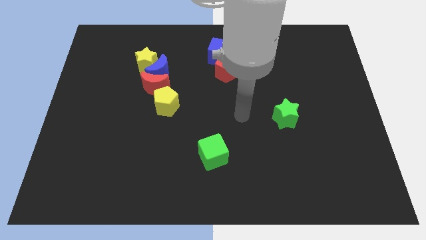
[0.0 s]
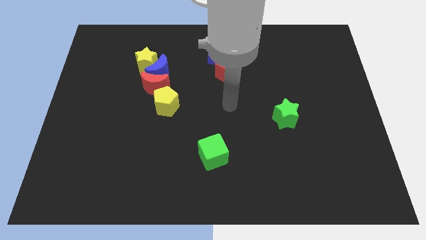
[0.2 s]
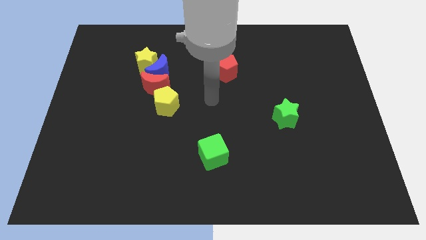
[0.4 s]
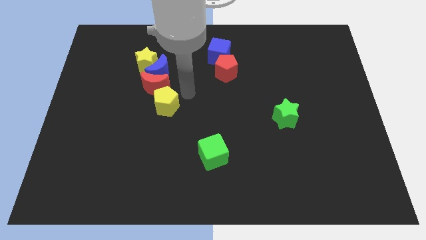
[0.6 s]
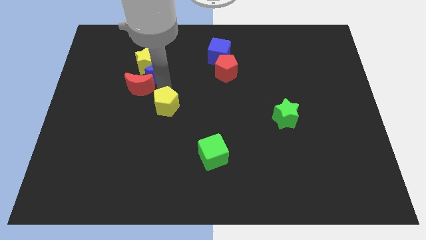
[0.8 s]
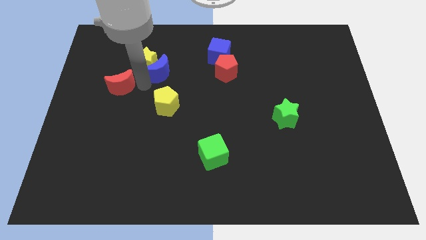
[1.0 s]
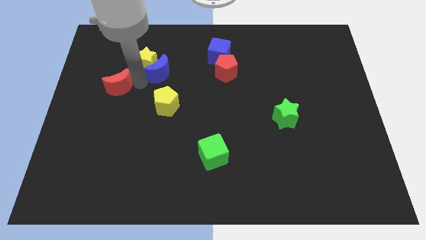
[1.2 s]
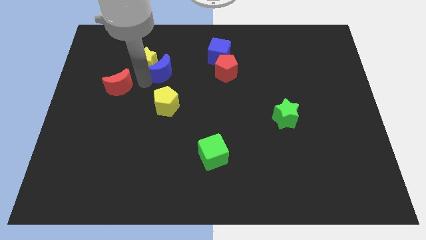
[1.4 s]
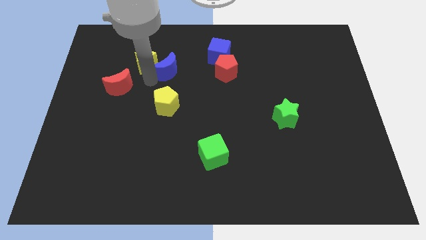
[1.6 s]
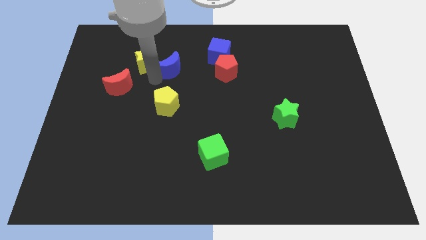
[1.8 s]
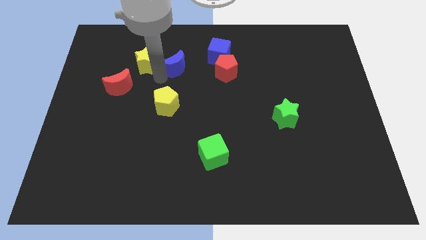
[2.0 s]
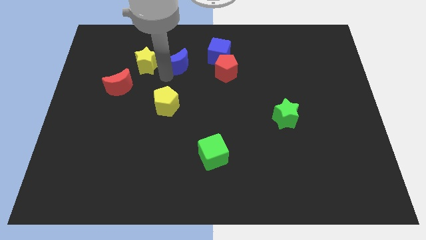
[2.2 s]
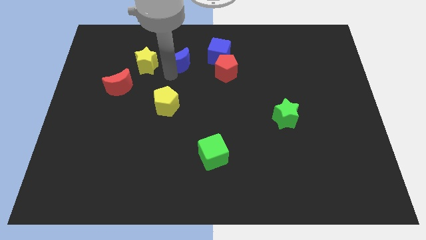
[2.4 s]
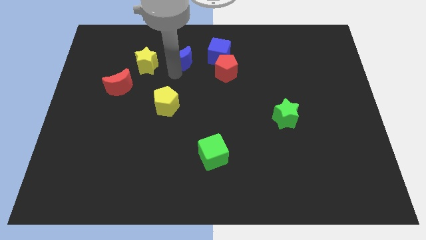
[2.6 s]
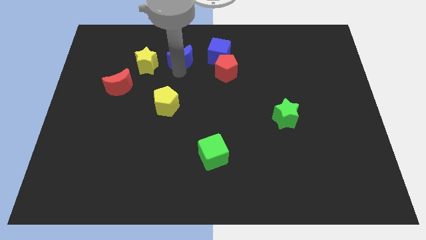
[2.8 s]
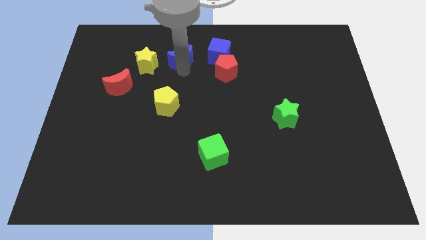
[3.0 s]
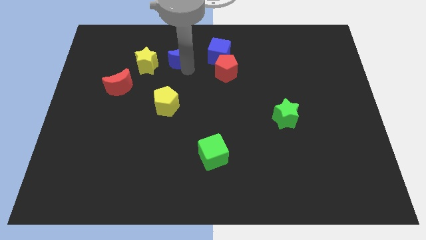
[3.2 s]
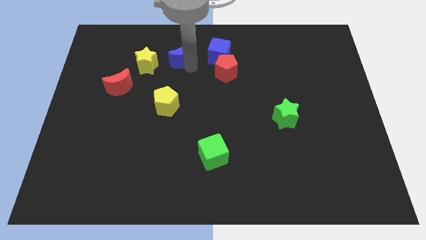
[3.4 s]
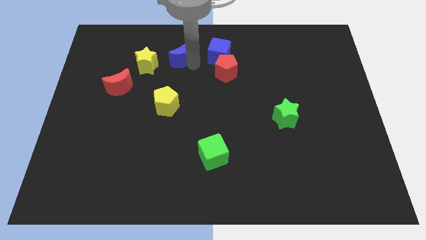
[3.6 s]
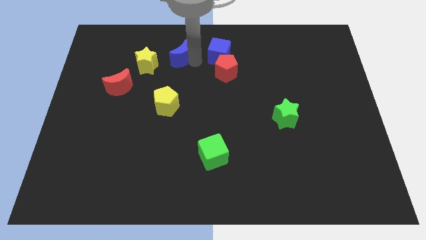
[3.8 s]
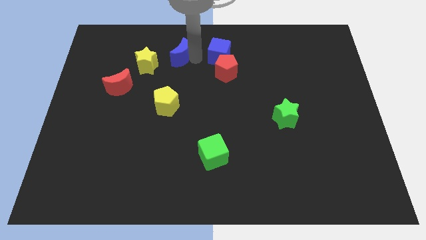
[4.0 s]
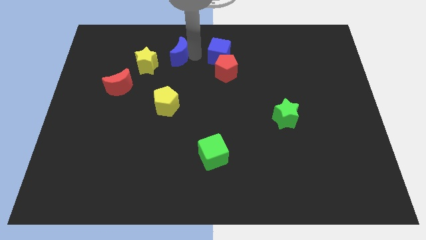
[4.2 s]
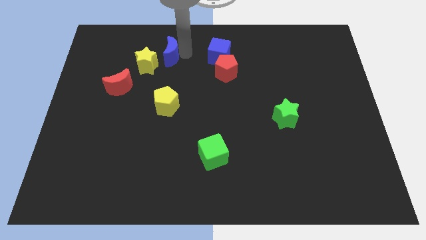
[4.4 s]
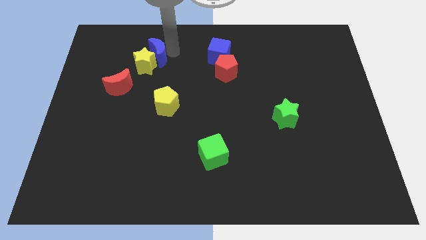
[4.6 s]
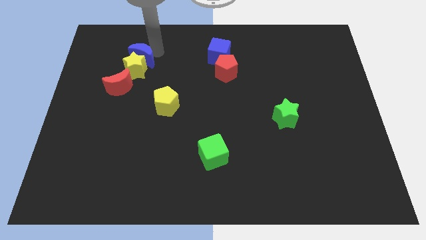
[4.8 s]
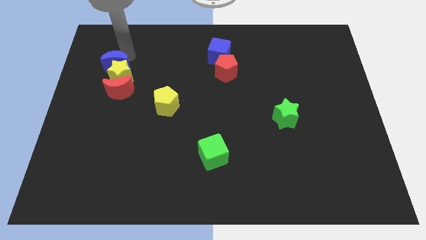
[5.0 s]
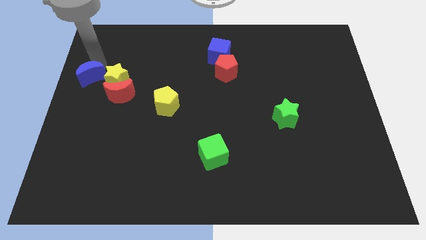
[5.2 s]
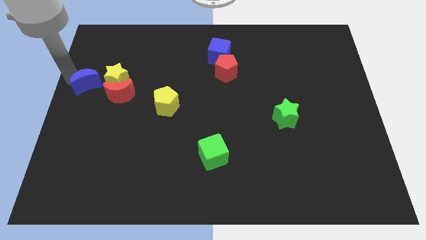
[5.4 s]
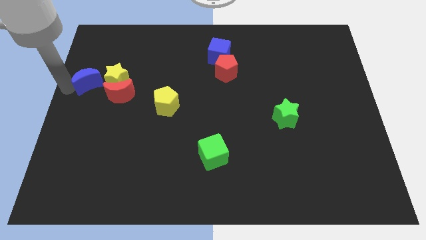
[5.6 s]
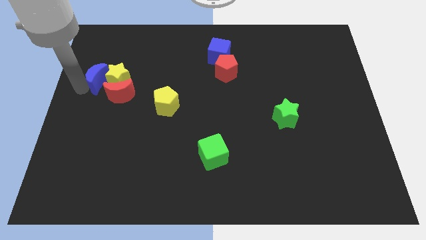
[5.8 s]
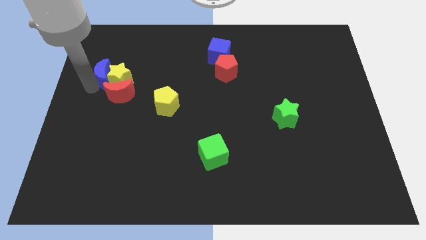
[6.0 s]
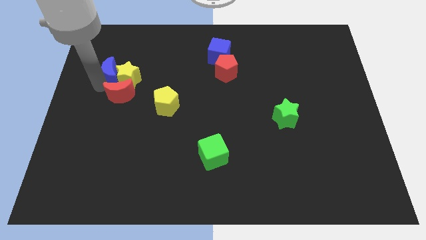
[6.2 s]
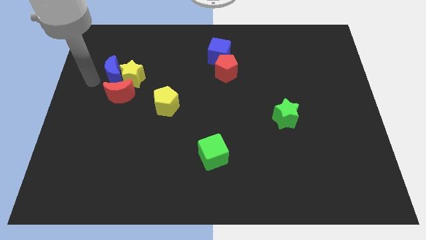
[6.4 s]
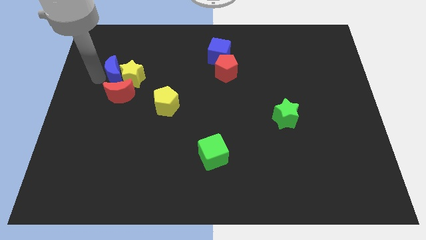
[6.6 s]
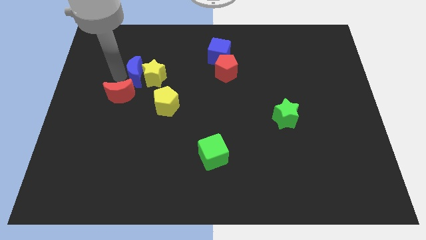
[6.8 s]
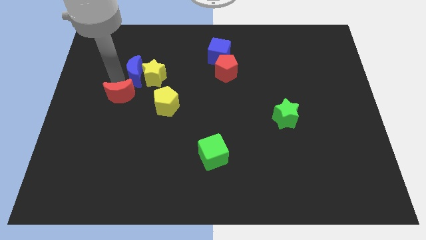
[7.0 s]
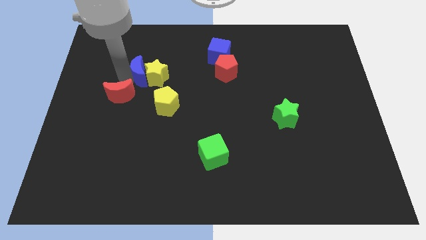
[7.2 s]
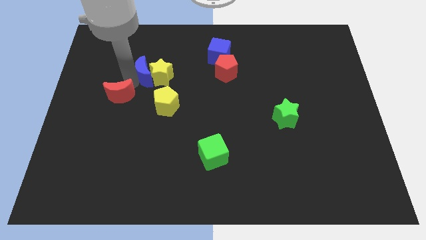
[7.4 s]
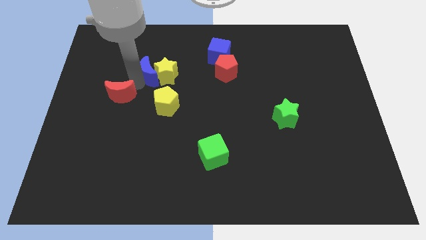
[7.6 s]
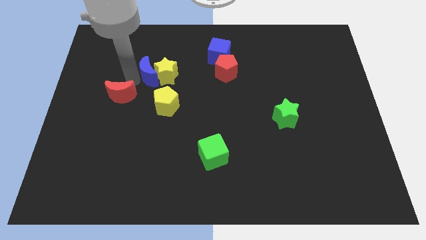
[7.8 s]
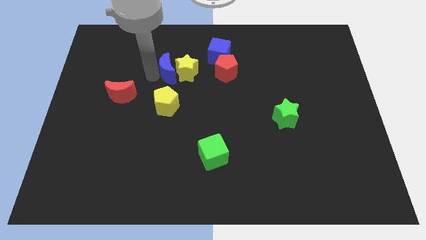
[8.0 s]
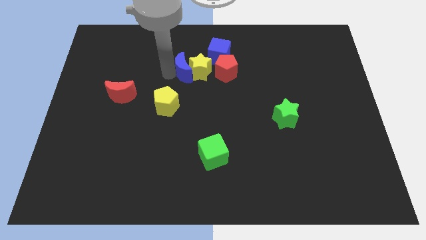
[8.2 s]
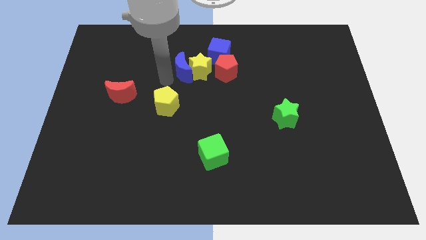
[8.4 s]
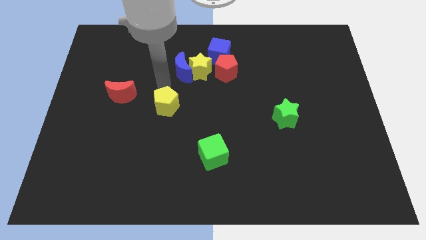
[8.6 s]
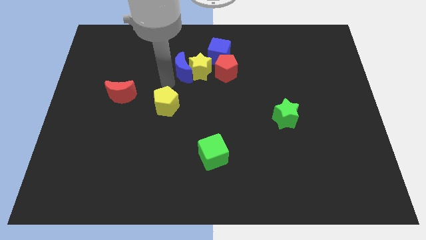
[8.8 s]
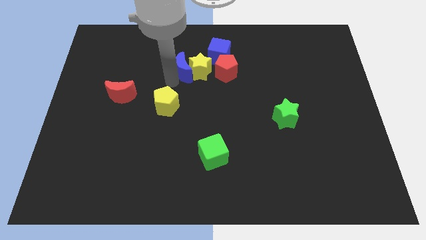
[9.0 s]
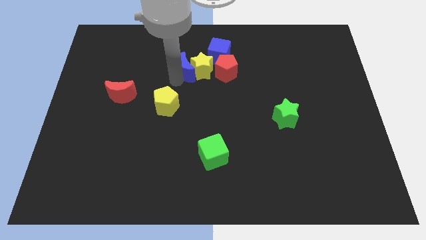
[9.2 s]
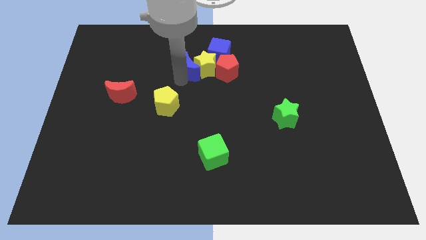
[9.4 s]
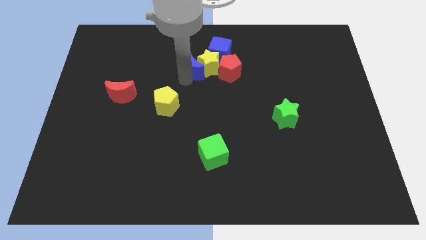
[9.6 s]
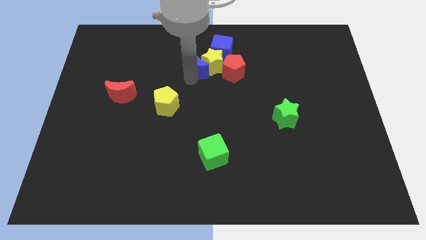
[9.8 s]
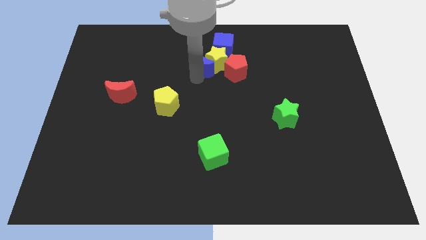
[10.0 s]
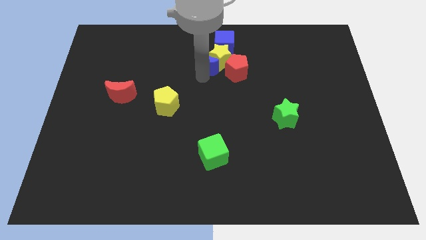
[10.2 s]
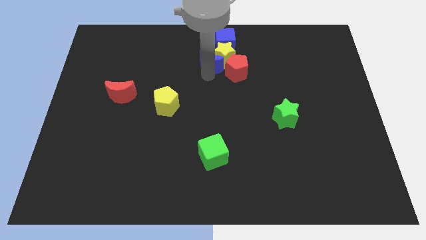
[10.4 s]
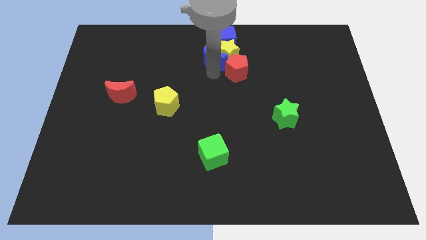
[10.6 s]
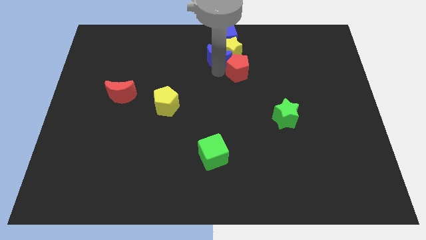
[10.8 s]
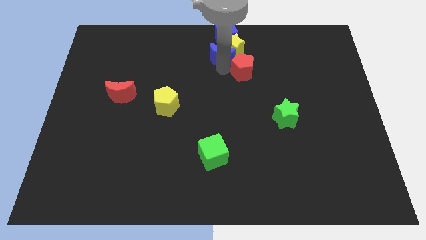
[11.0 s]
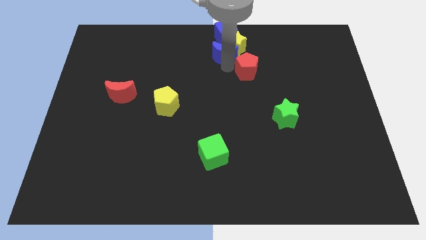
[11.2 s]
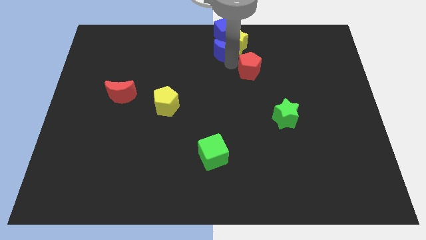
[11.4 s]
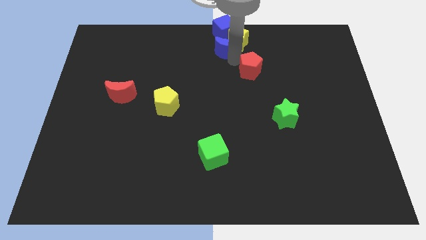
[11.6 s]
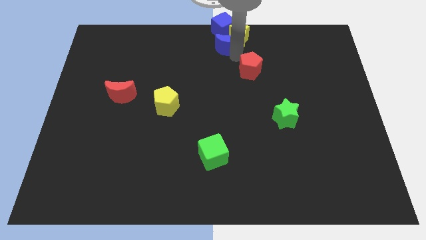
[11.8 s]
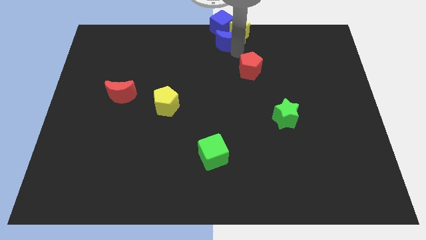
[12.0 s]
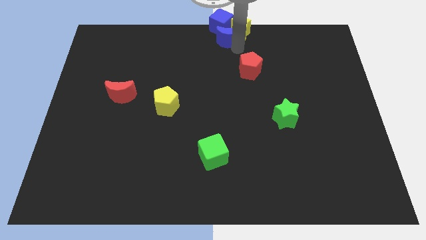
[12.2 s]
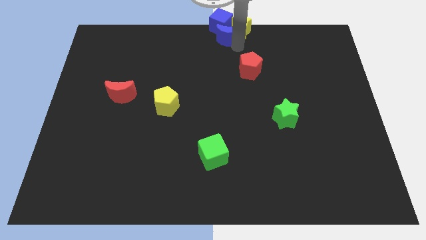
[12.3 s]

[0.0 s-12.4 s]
push the blue moon next to the blue cube

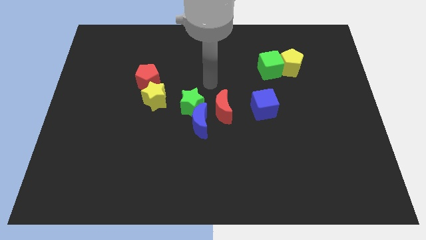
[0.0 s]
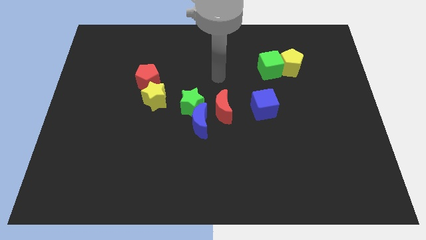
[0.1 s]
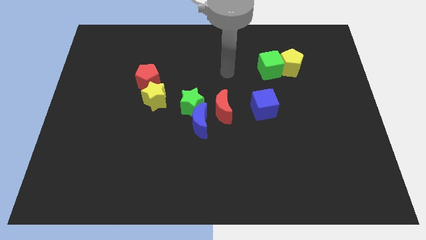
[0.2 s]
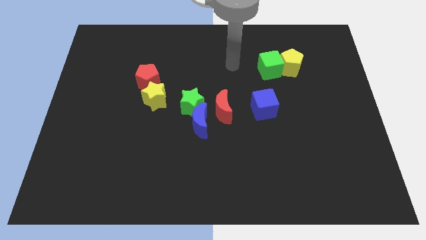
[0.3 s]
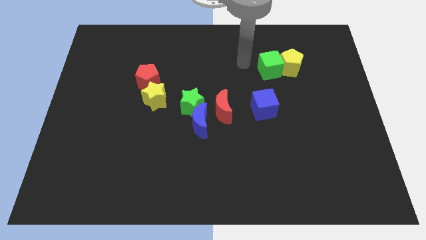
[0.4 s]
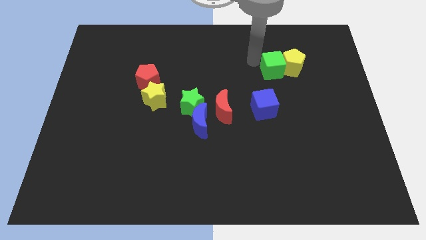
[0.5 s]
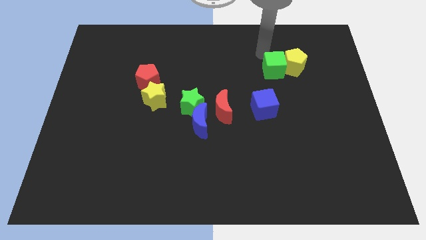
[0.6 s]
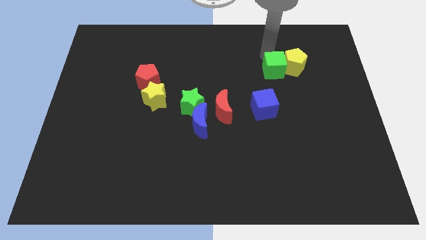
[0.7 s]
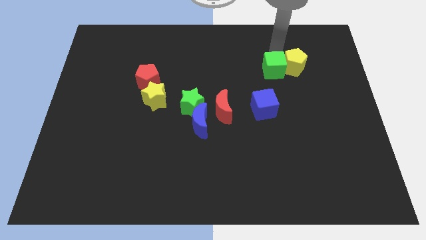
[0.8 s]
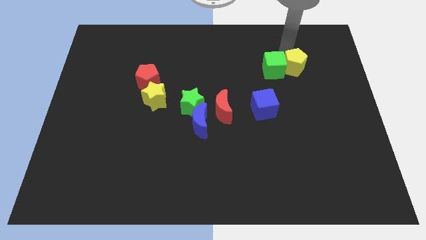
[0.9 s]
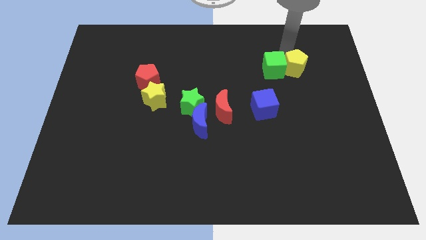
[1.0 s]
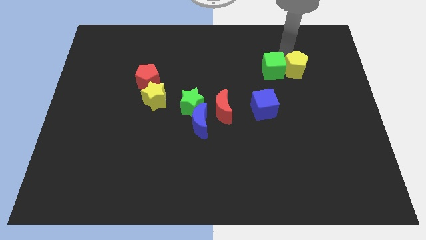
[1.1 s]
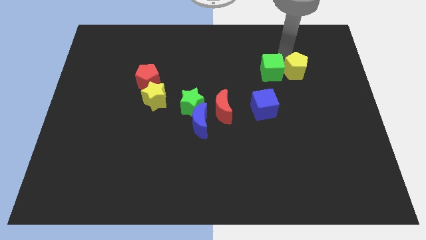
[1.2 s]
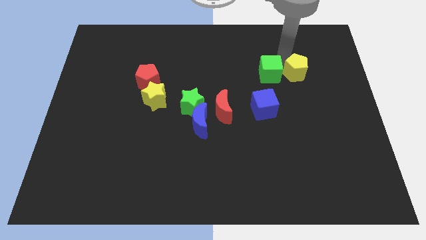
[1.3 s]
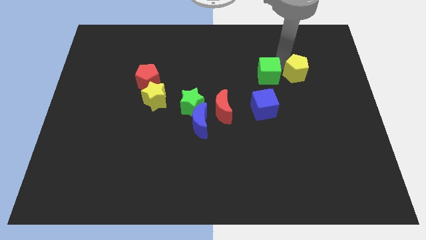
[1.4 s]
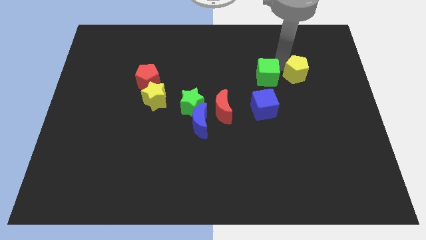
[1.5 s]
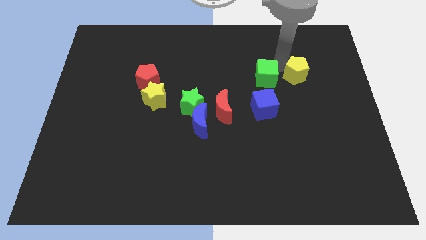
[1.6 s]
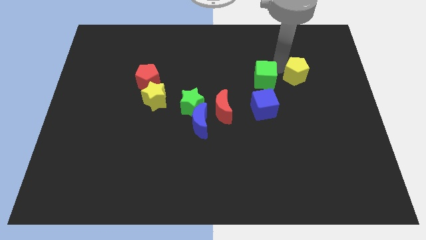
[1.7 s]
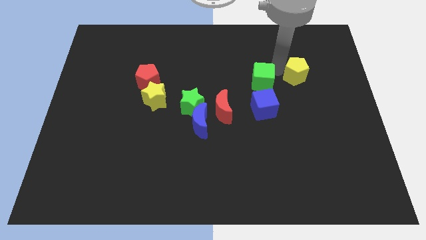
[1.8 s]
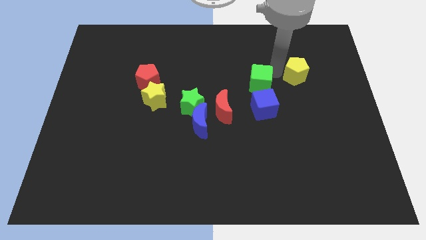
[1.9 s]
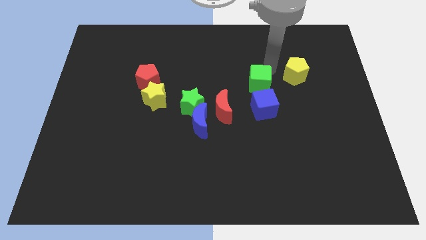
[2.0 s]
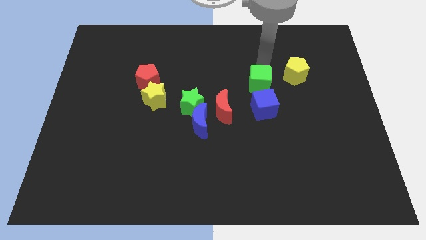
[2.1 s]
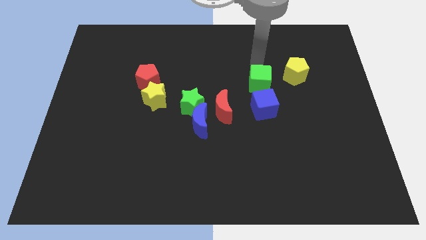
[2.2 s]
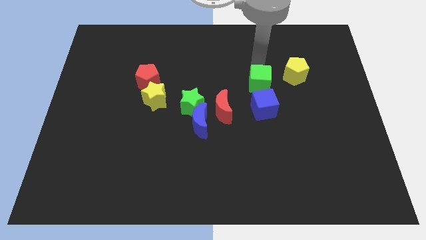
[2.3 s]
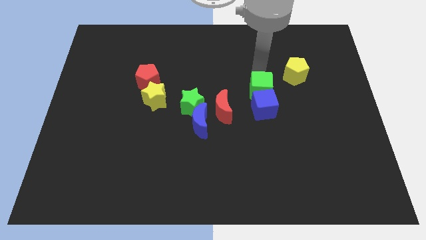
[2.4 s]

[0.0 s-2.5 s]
put the green cube towards the blue cube
